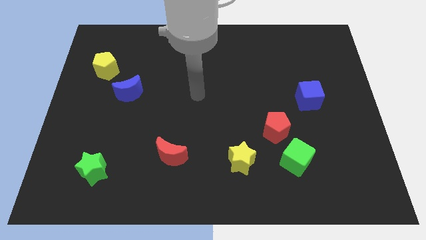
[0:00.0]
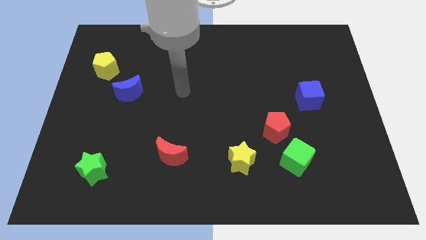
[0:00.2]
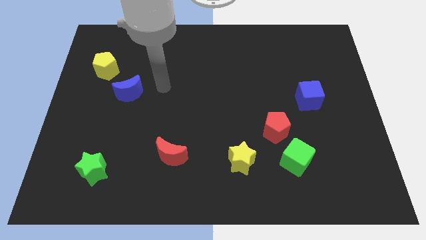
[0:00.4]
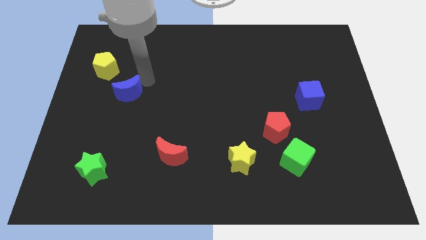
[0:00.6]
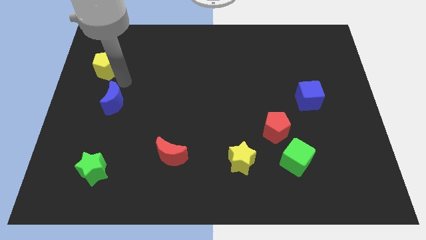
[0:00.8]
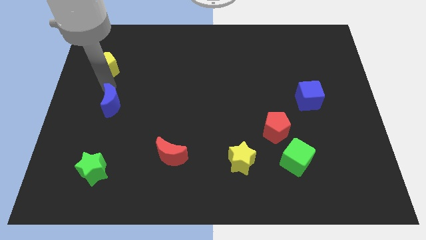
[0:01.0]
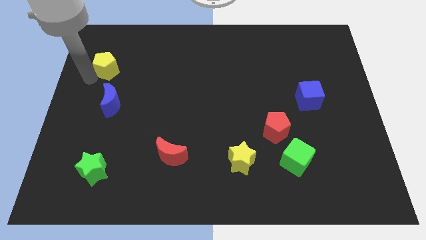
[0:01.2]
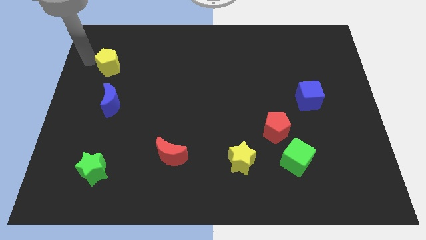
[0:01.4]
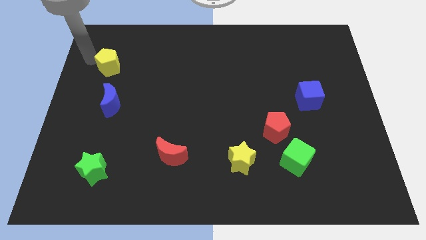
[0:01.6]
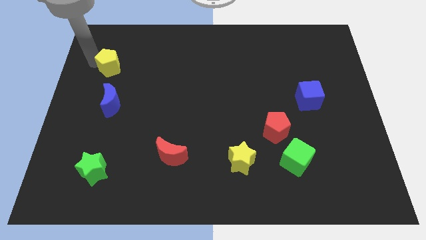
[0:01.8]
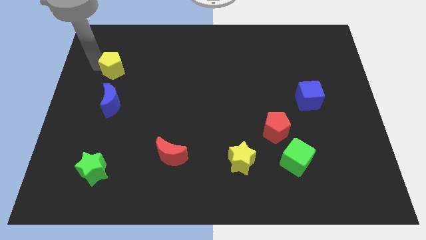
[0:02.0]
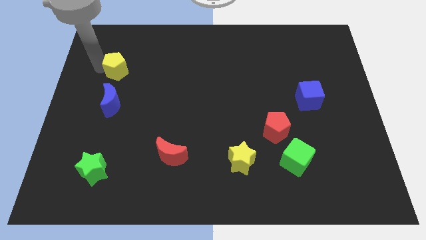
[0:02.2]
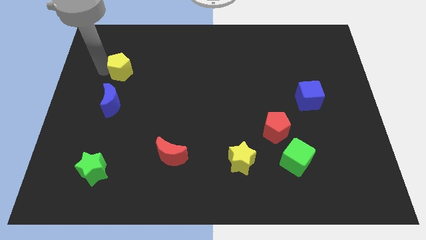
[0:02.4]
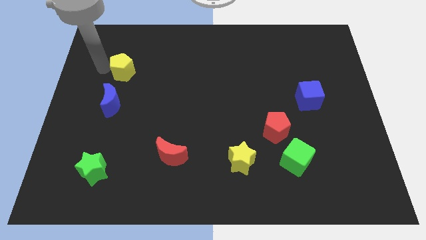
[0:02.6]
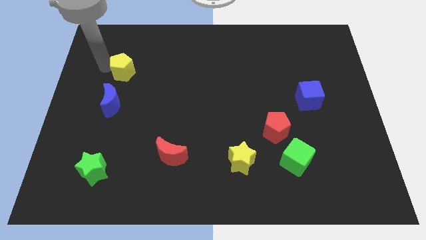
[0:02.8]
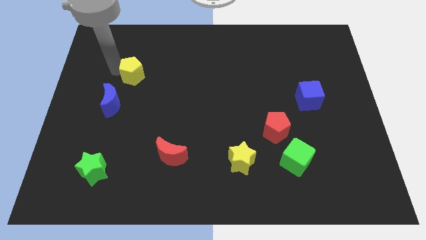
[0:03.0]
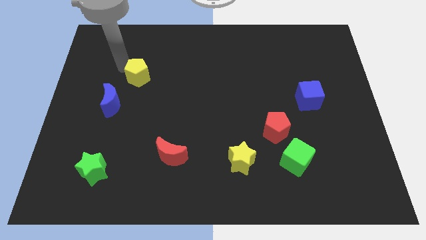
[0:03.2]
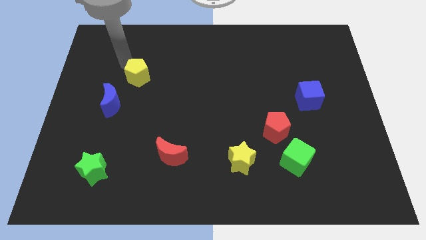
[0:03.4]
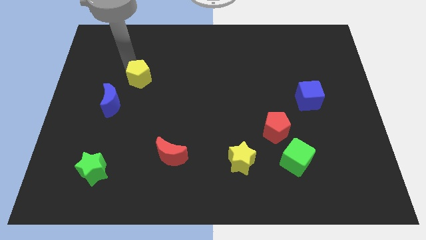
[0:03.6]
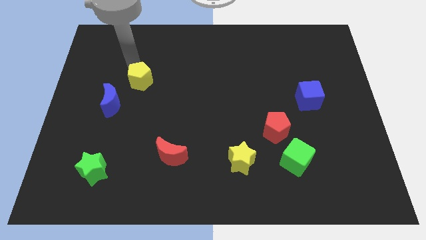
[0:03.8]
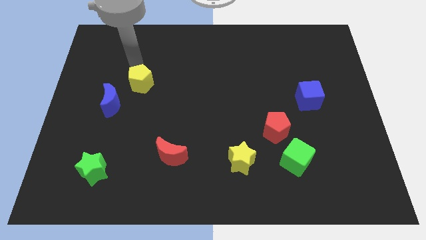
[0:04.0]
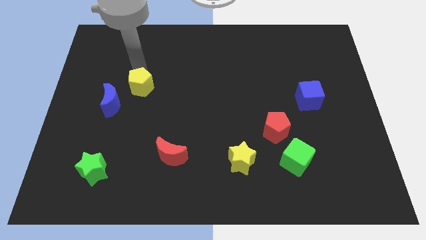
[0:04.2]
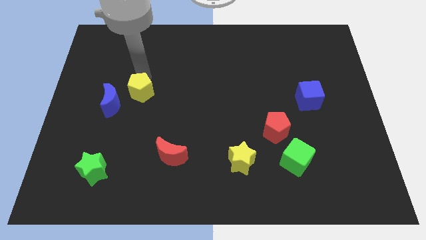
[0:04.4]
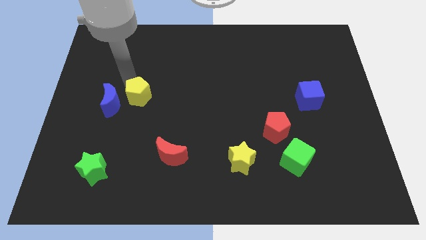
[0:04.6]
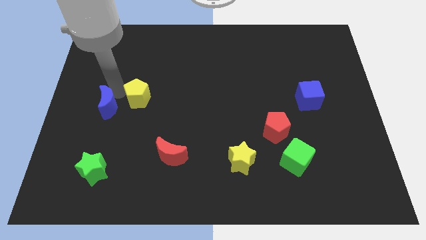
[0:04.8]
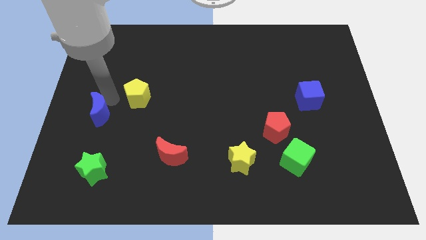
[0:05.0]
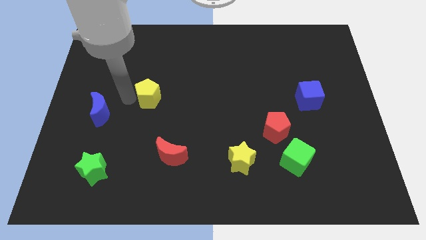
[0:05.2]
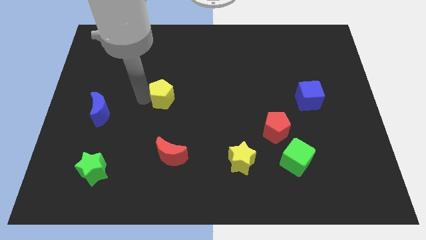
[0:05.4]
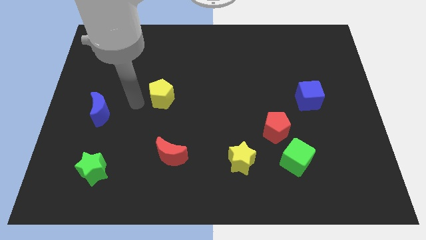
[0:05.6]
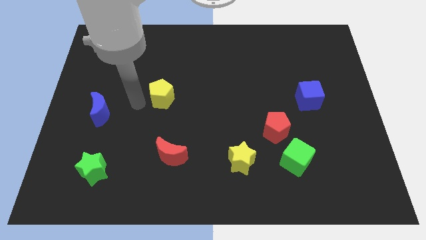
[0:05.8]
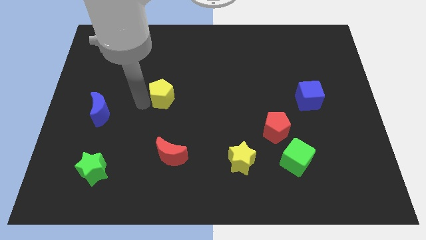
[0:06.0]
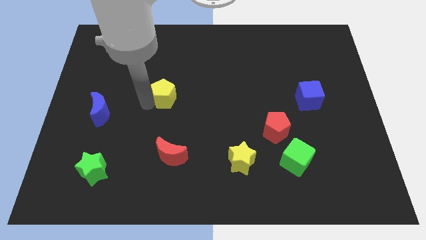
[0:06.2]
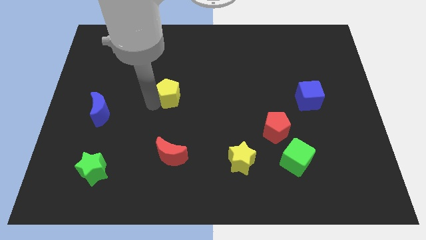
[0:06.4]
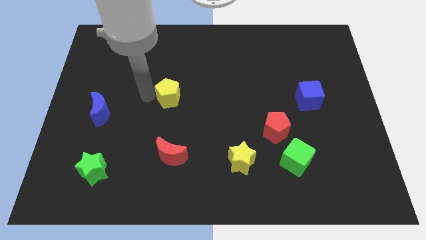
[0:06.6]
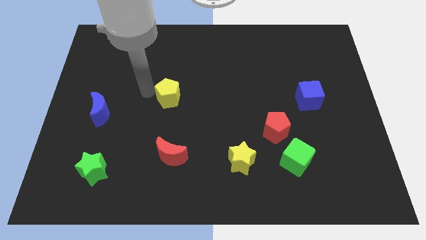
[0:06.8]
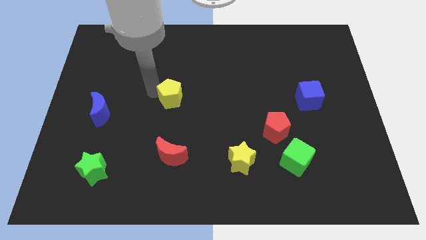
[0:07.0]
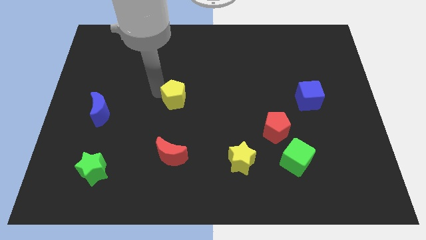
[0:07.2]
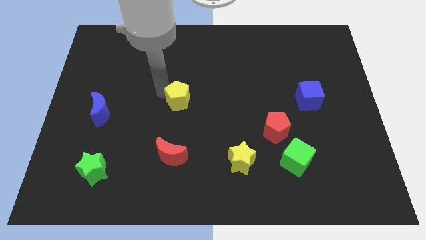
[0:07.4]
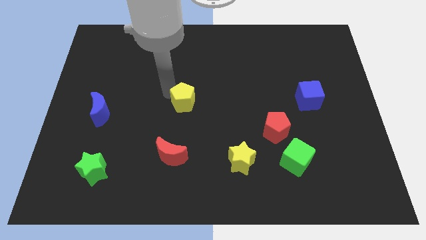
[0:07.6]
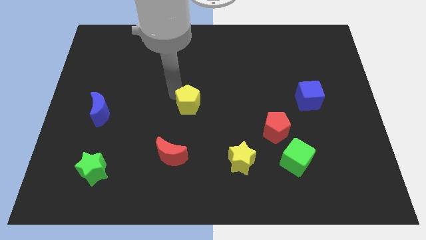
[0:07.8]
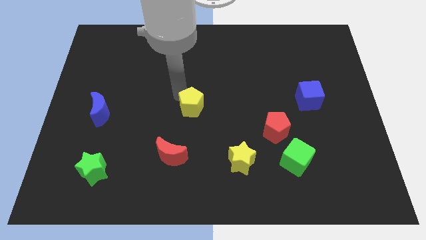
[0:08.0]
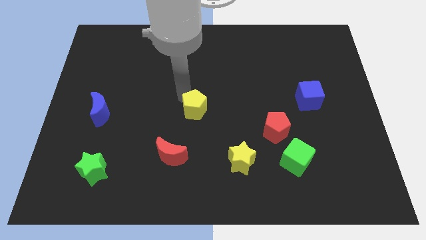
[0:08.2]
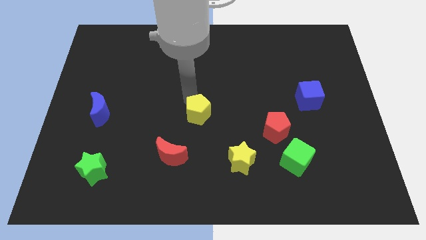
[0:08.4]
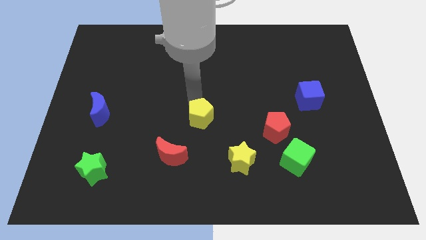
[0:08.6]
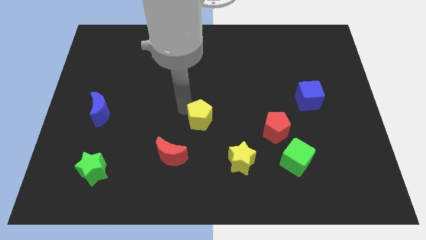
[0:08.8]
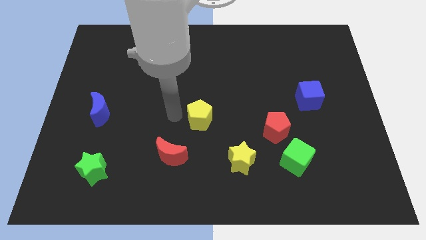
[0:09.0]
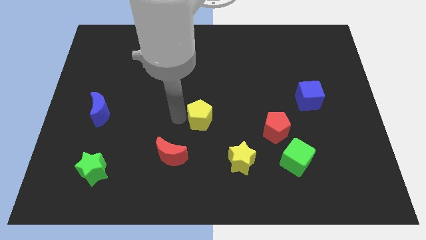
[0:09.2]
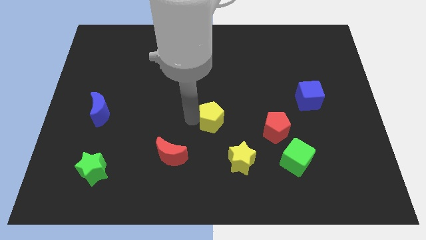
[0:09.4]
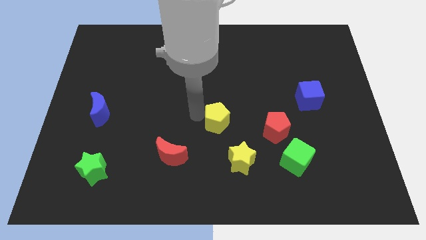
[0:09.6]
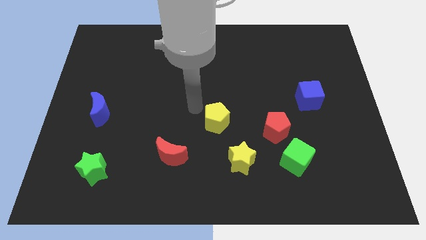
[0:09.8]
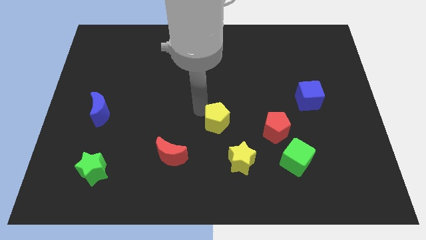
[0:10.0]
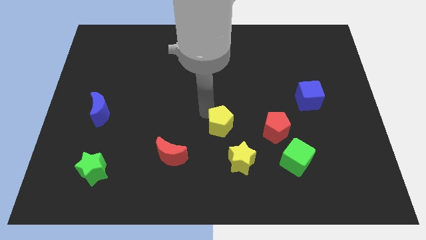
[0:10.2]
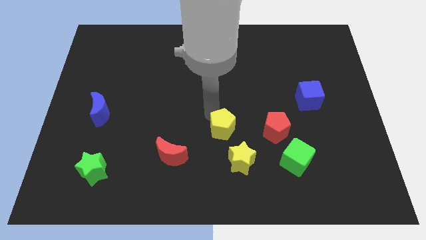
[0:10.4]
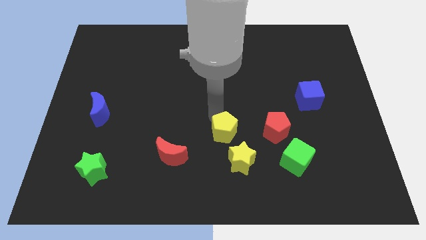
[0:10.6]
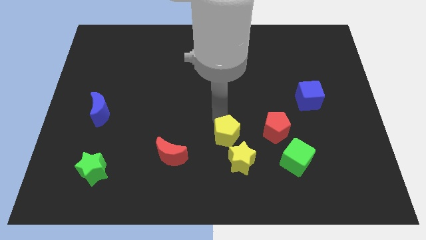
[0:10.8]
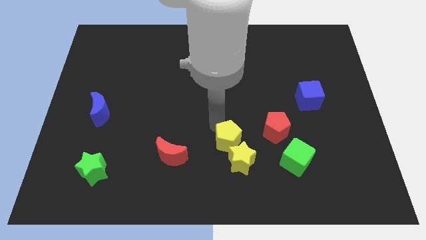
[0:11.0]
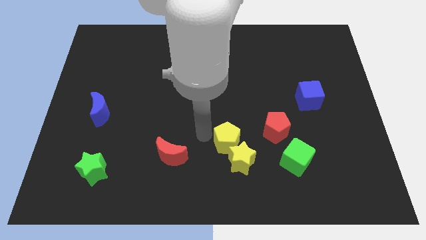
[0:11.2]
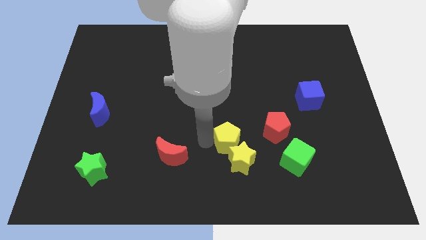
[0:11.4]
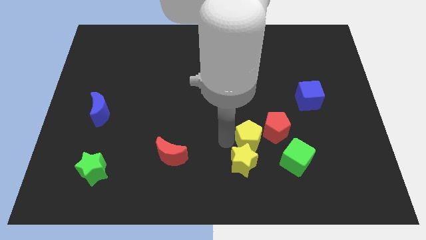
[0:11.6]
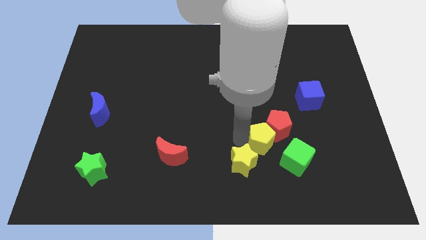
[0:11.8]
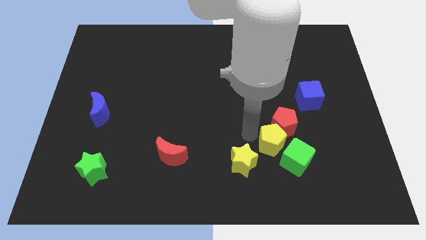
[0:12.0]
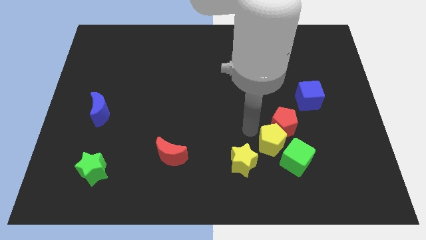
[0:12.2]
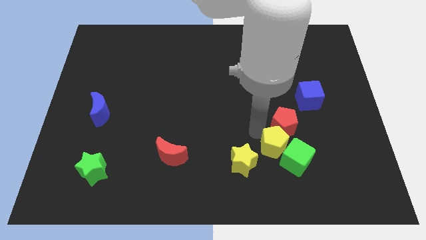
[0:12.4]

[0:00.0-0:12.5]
push the yellow pentagon to the green cube

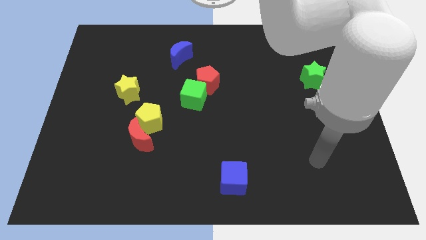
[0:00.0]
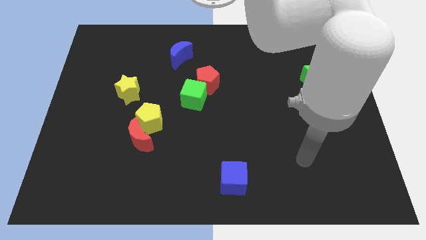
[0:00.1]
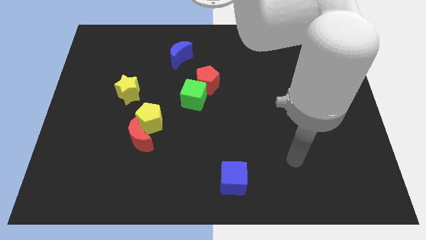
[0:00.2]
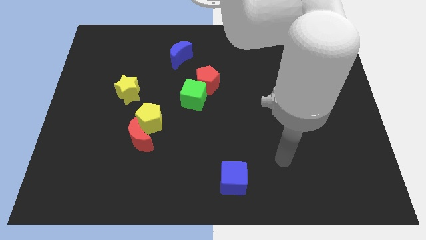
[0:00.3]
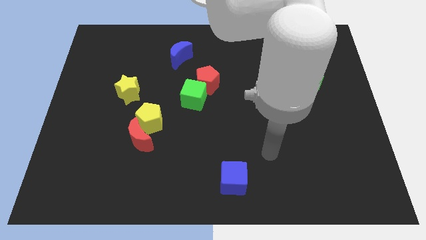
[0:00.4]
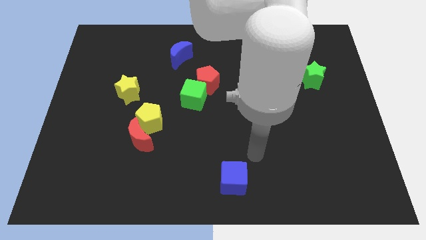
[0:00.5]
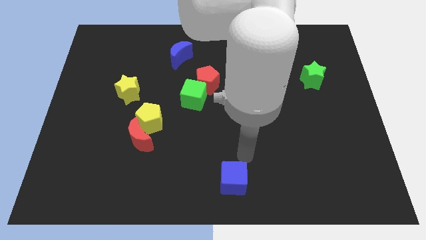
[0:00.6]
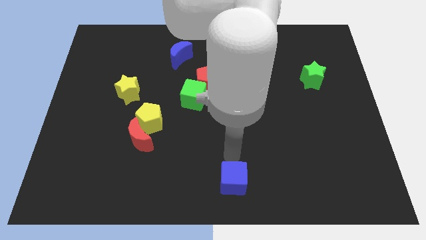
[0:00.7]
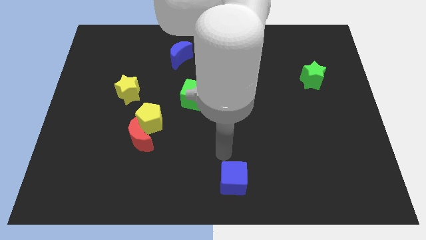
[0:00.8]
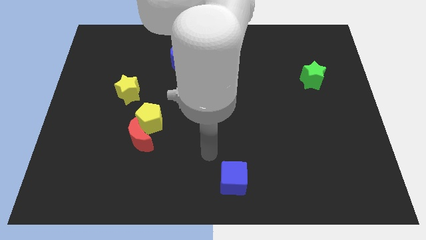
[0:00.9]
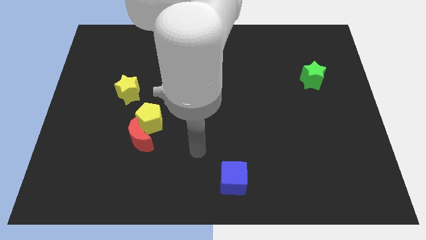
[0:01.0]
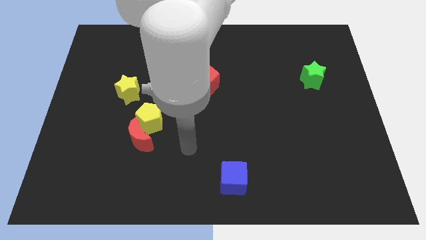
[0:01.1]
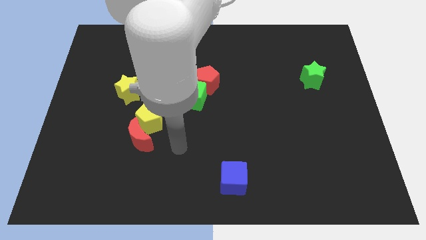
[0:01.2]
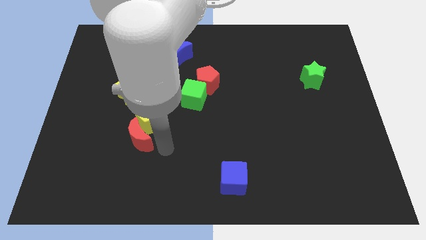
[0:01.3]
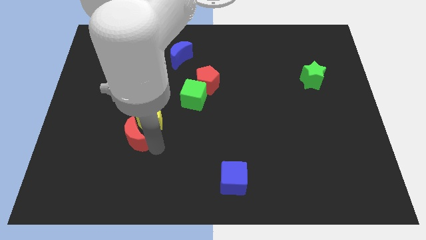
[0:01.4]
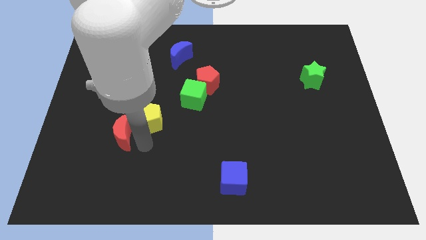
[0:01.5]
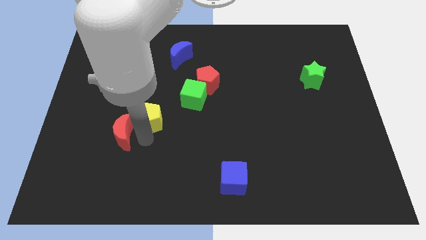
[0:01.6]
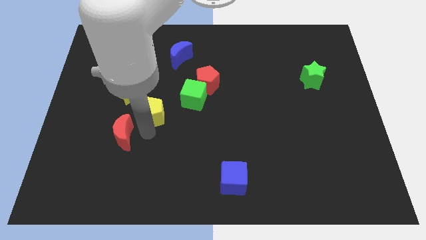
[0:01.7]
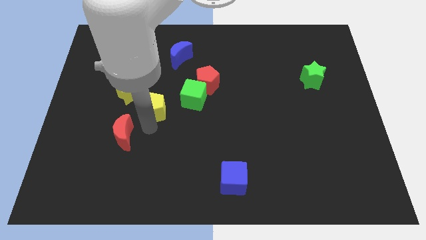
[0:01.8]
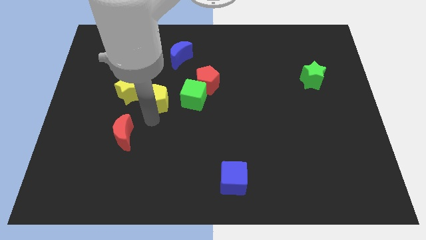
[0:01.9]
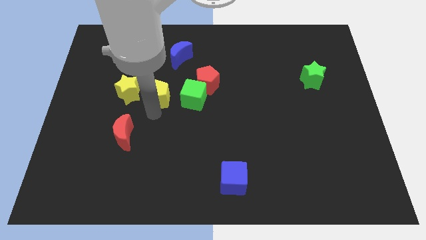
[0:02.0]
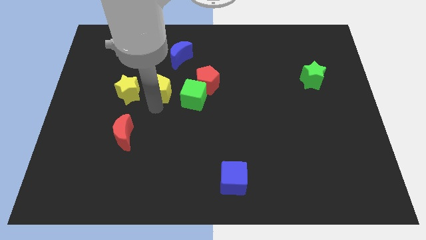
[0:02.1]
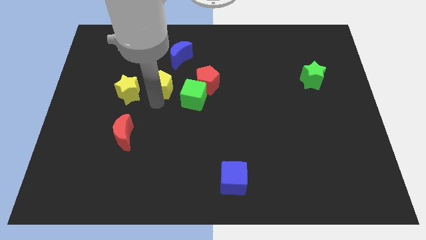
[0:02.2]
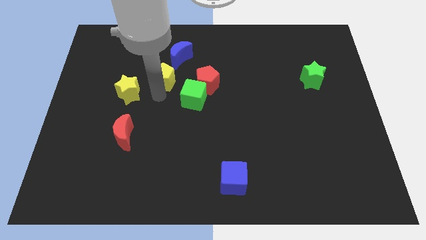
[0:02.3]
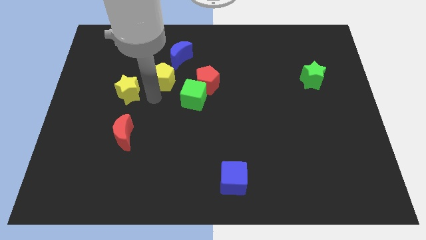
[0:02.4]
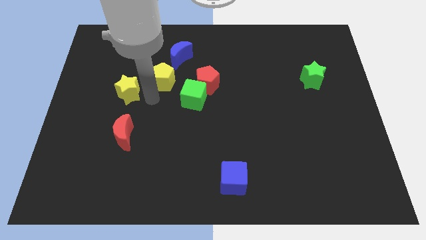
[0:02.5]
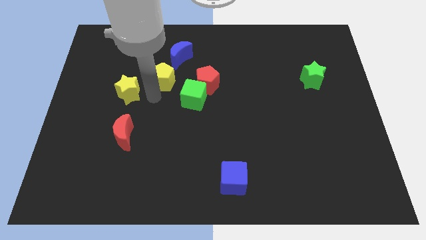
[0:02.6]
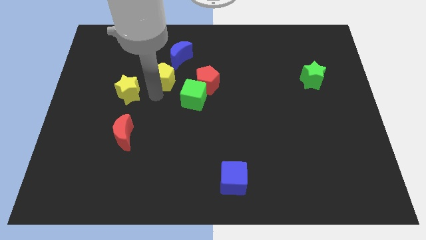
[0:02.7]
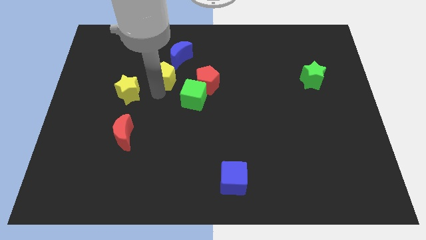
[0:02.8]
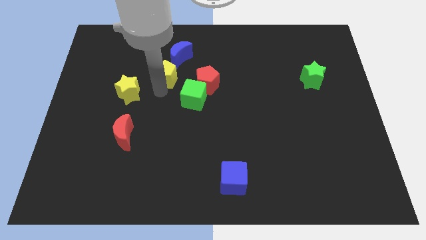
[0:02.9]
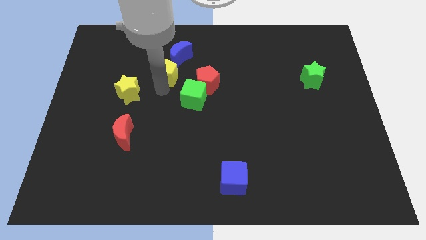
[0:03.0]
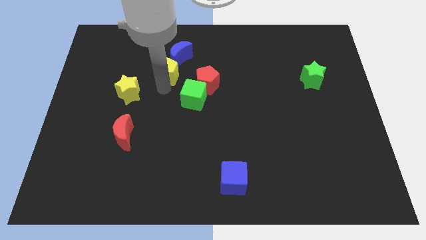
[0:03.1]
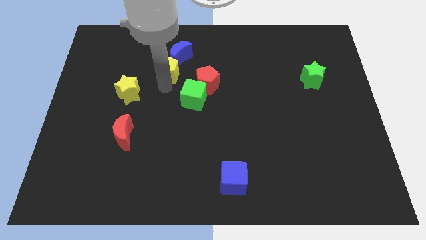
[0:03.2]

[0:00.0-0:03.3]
put the yellow pentagon close to the blue moon
